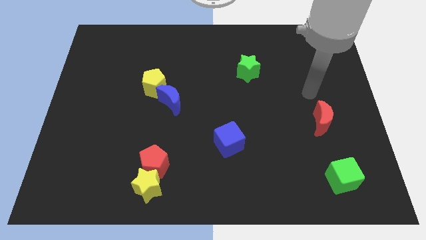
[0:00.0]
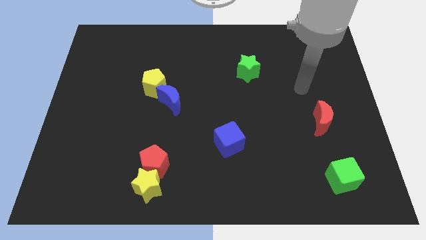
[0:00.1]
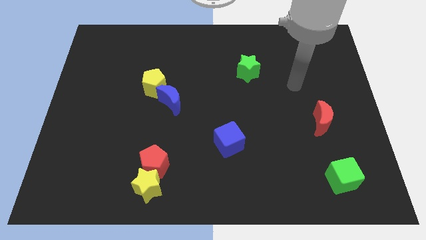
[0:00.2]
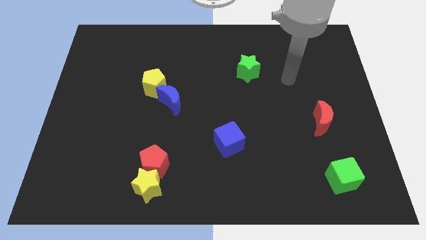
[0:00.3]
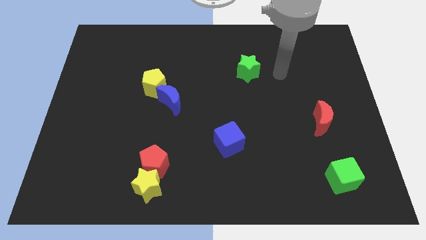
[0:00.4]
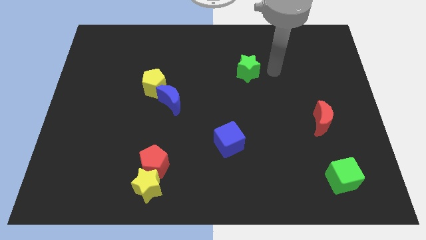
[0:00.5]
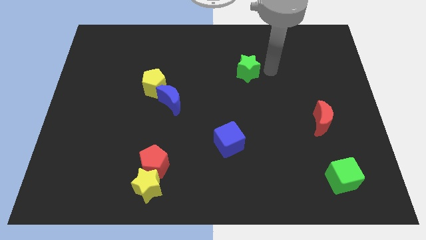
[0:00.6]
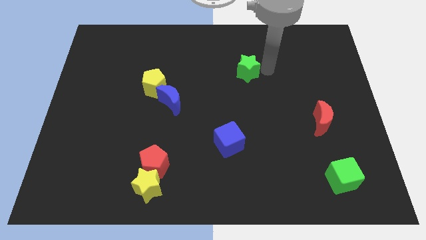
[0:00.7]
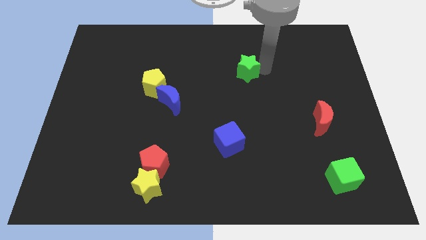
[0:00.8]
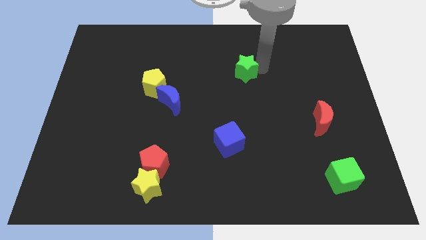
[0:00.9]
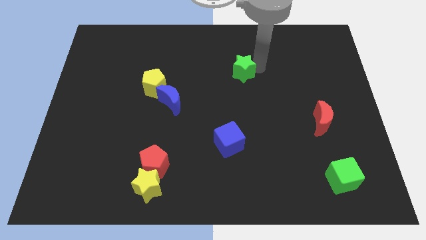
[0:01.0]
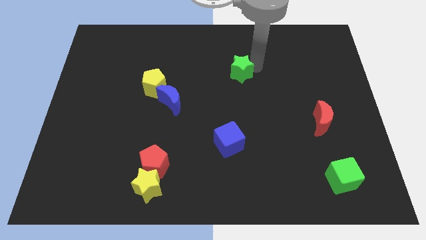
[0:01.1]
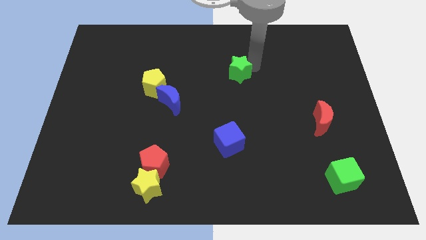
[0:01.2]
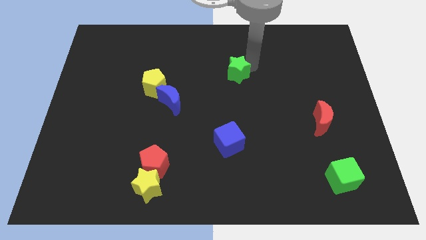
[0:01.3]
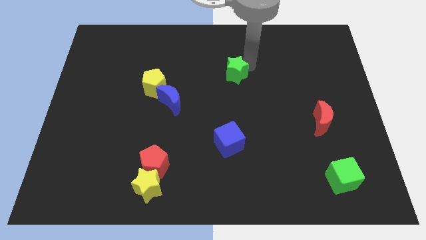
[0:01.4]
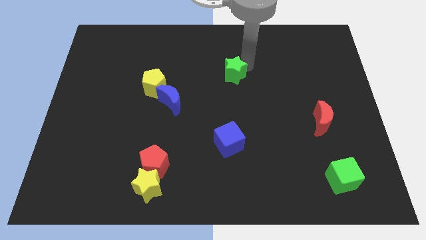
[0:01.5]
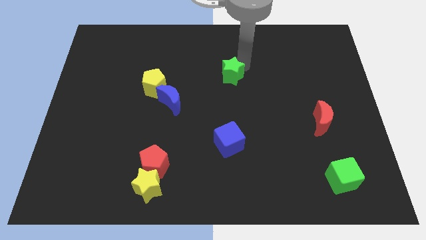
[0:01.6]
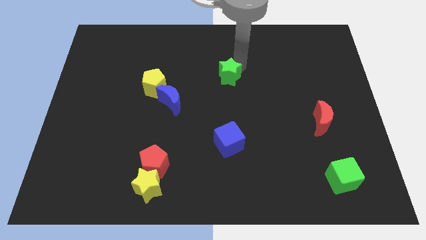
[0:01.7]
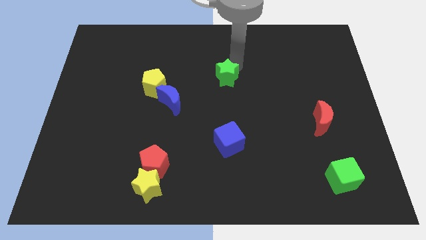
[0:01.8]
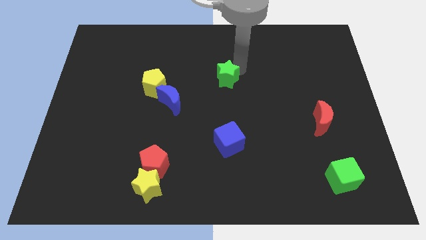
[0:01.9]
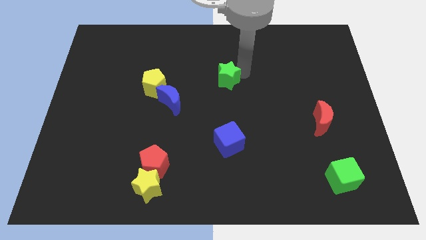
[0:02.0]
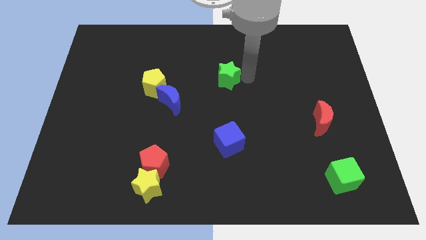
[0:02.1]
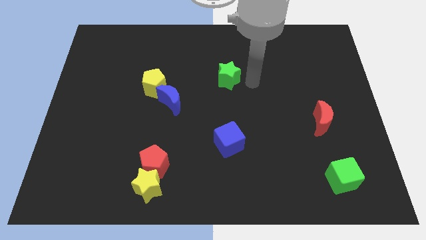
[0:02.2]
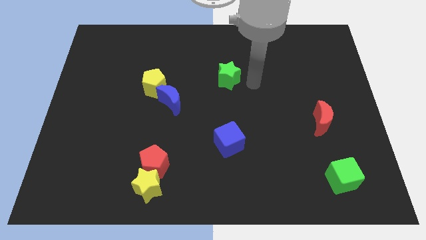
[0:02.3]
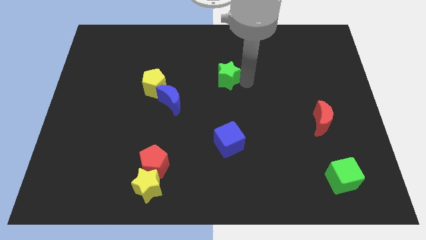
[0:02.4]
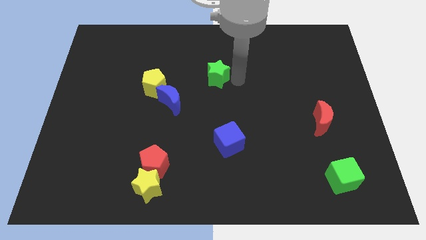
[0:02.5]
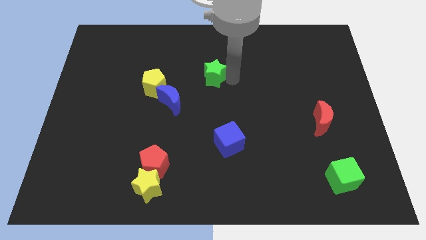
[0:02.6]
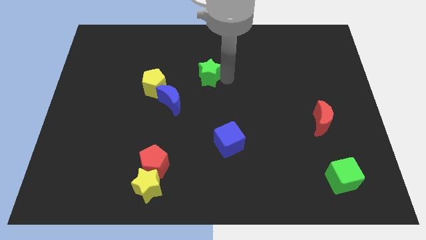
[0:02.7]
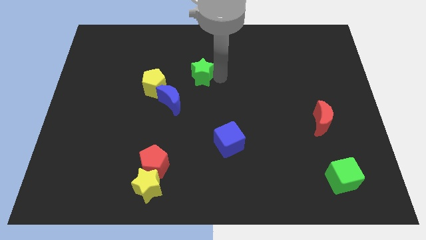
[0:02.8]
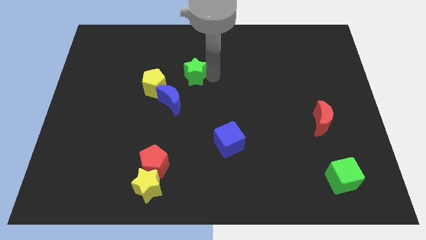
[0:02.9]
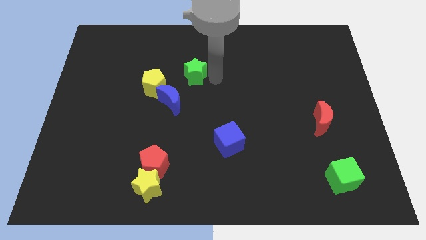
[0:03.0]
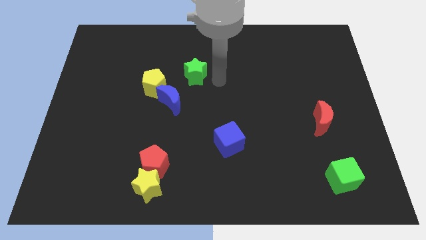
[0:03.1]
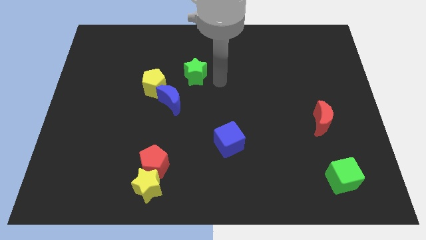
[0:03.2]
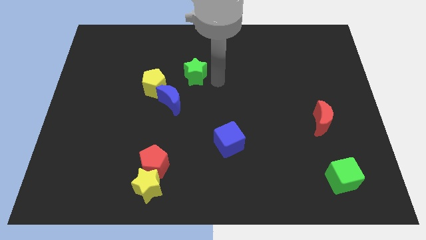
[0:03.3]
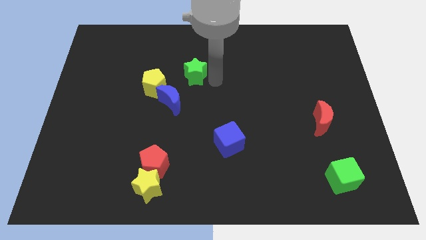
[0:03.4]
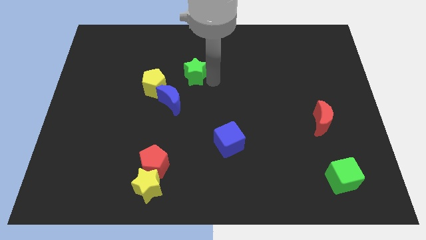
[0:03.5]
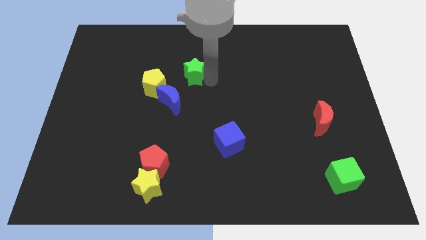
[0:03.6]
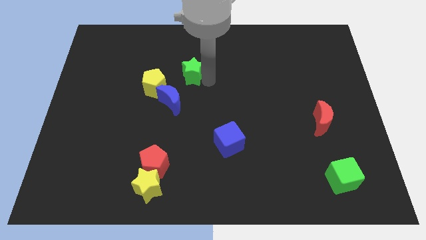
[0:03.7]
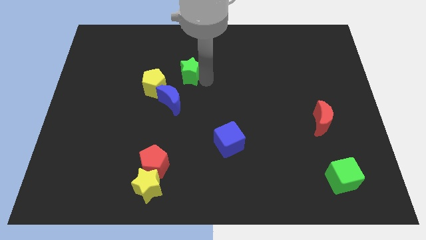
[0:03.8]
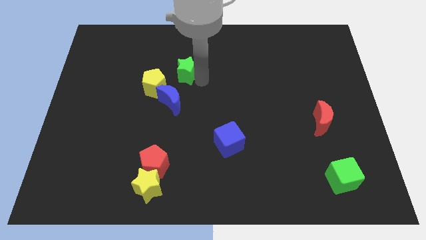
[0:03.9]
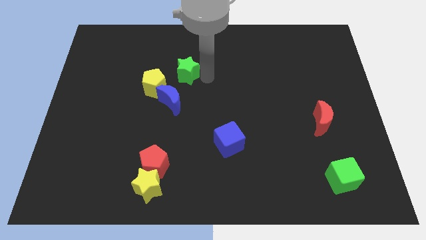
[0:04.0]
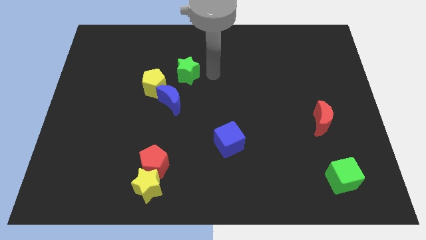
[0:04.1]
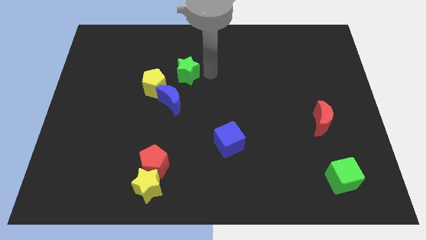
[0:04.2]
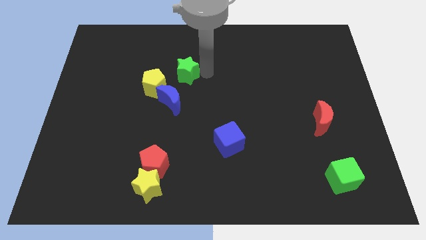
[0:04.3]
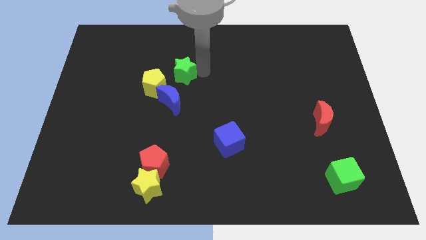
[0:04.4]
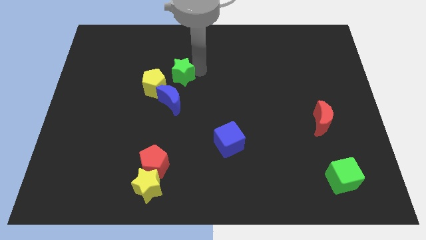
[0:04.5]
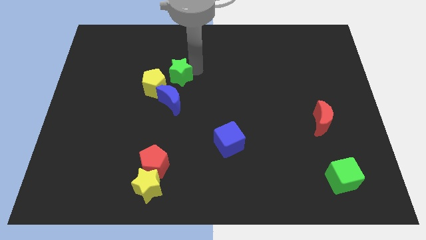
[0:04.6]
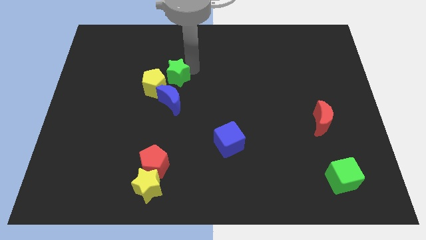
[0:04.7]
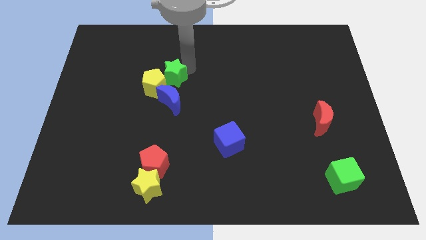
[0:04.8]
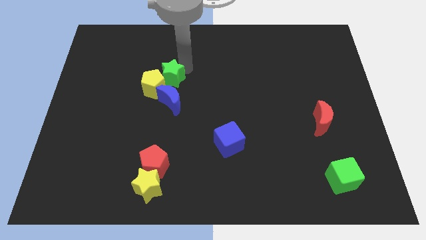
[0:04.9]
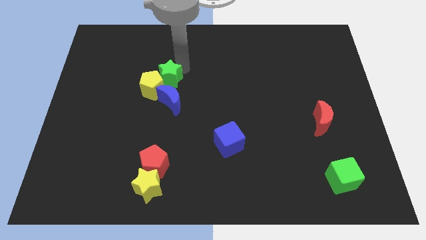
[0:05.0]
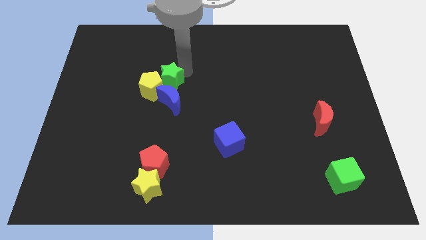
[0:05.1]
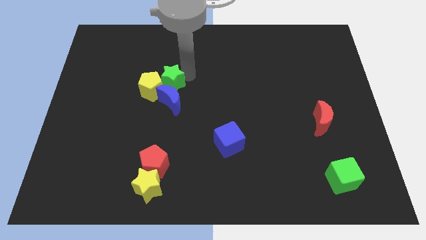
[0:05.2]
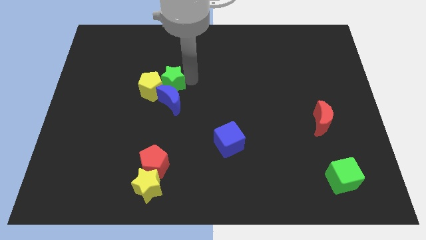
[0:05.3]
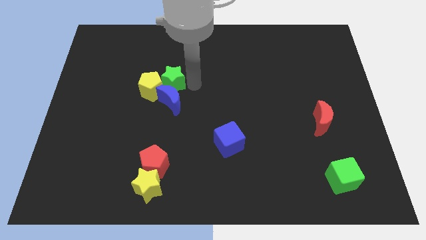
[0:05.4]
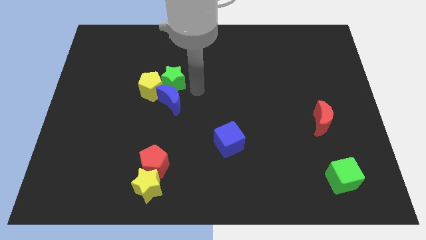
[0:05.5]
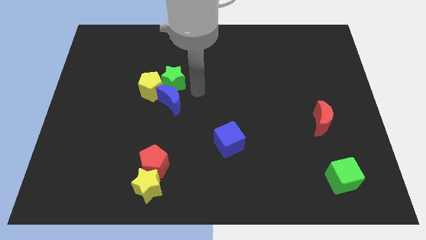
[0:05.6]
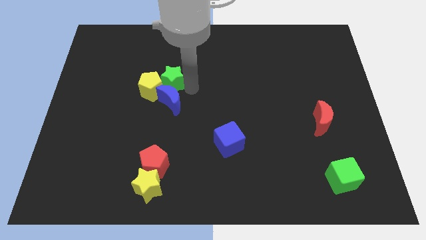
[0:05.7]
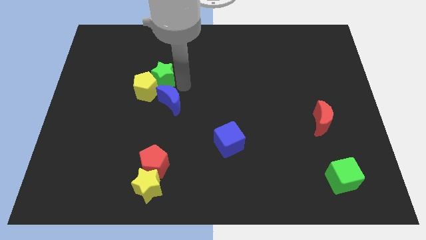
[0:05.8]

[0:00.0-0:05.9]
slide the green star to the left

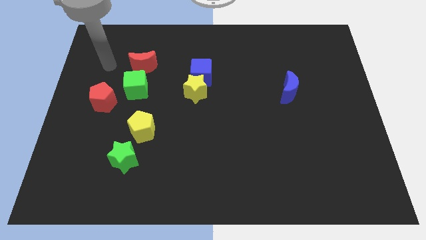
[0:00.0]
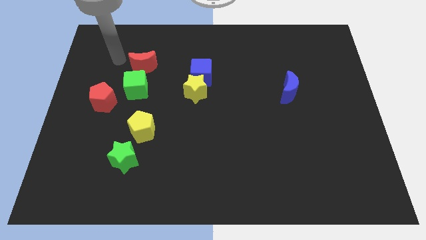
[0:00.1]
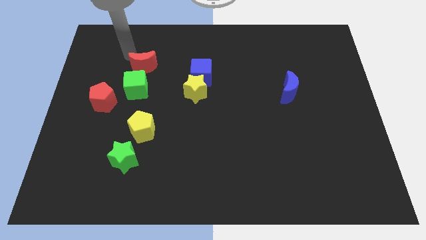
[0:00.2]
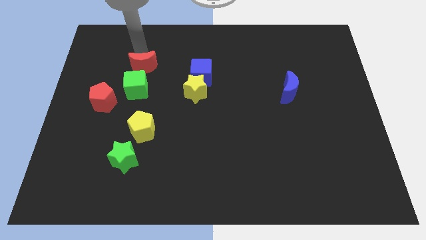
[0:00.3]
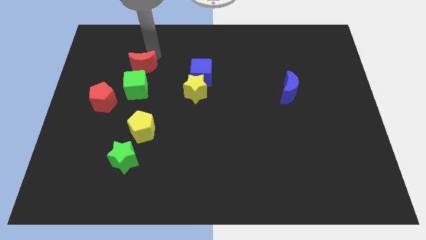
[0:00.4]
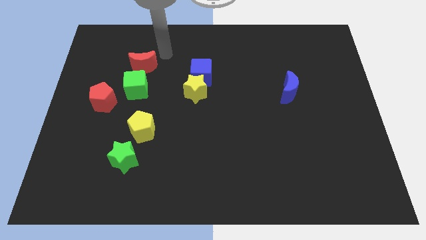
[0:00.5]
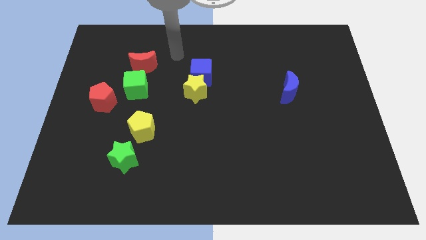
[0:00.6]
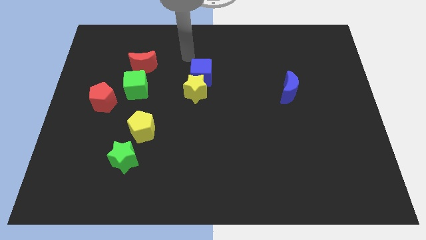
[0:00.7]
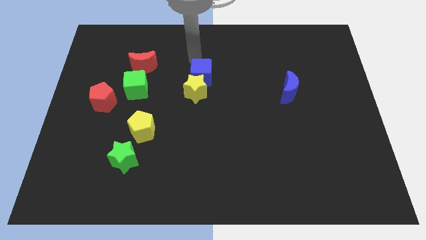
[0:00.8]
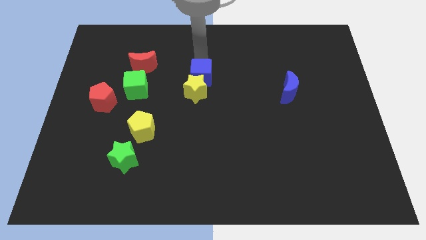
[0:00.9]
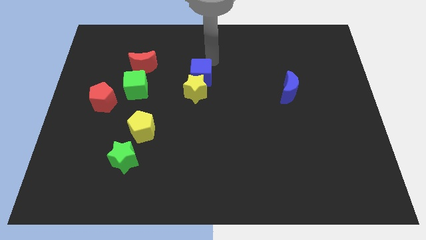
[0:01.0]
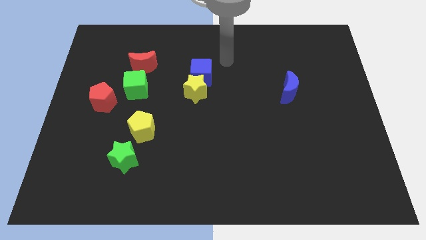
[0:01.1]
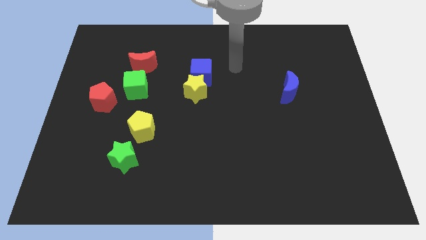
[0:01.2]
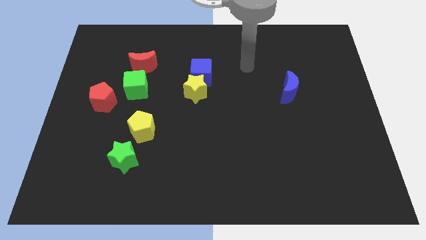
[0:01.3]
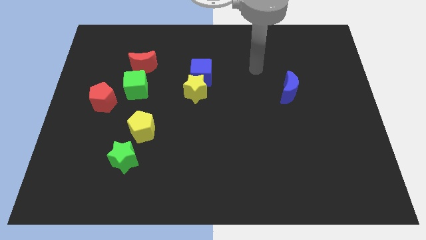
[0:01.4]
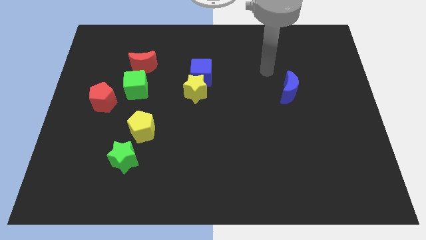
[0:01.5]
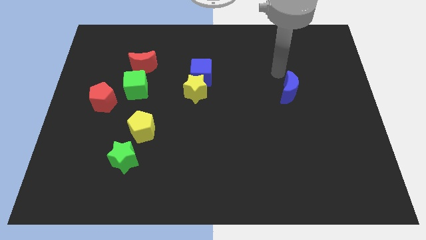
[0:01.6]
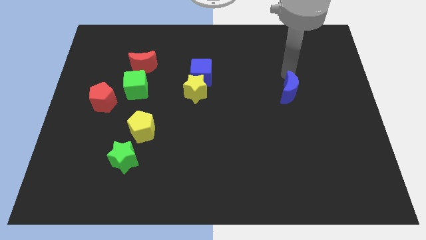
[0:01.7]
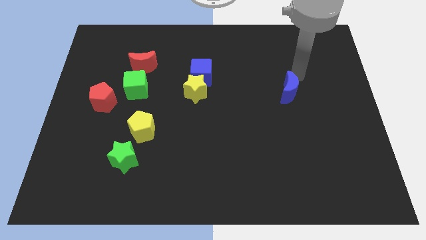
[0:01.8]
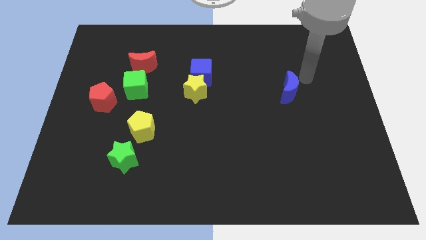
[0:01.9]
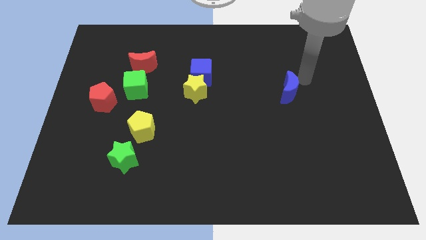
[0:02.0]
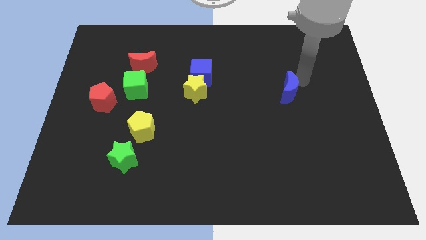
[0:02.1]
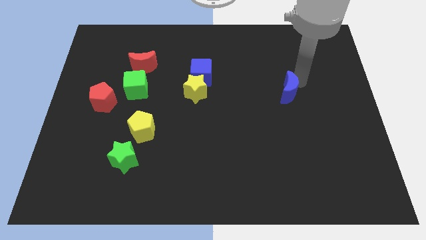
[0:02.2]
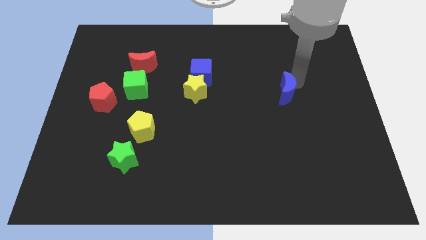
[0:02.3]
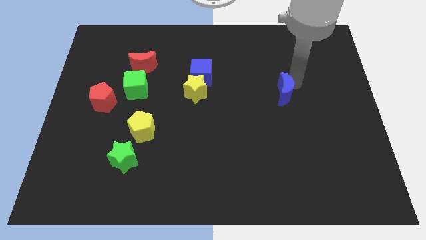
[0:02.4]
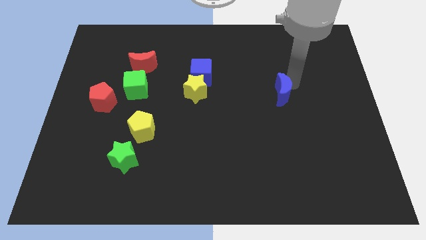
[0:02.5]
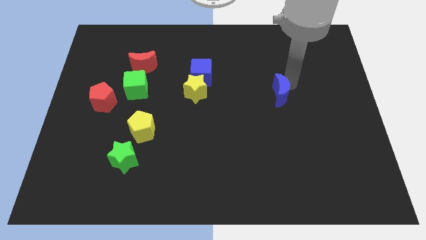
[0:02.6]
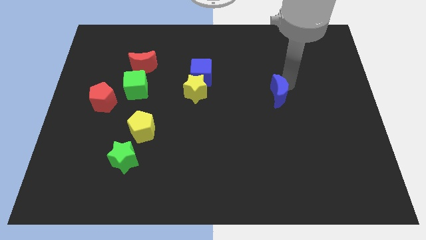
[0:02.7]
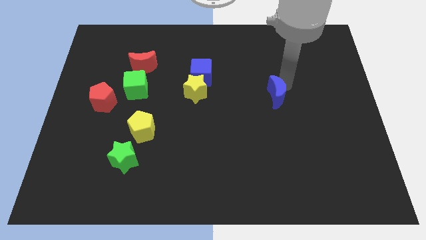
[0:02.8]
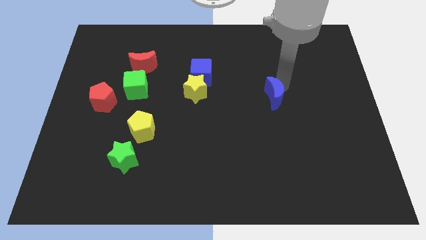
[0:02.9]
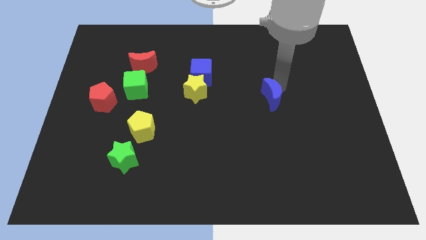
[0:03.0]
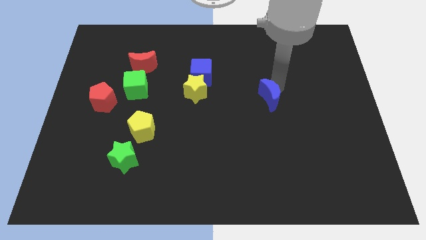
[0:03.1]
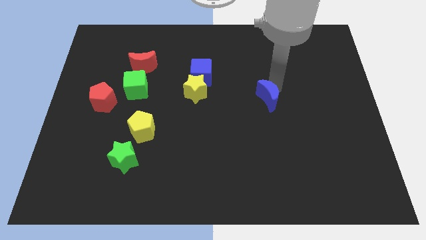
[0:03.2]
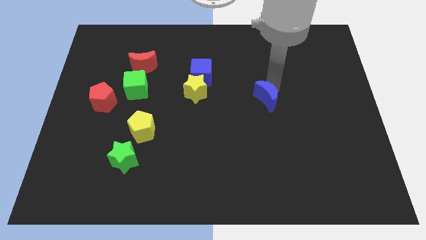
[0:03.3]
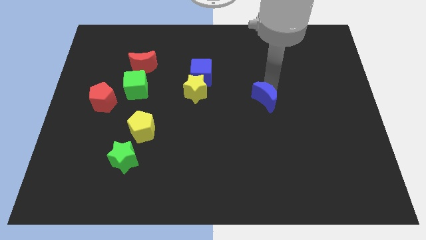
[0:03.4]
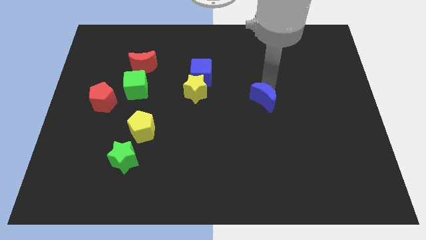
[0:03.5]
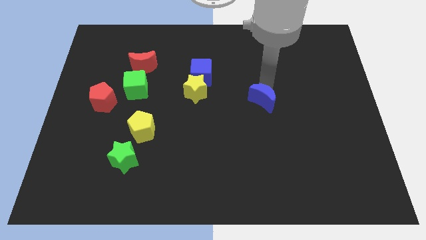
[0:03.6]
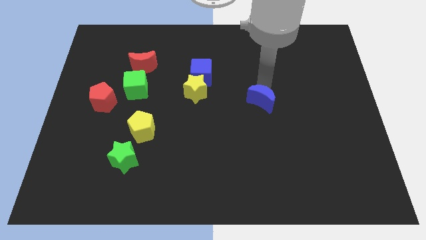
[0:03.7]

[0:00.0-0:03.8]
move the blue moon downwards and left diagonally a little bit
